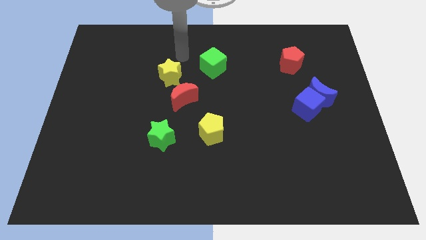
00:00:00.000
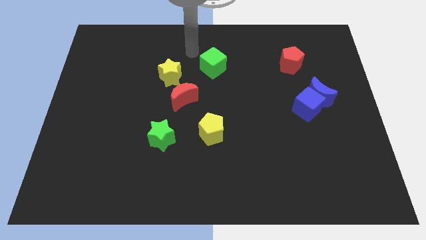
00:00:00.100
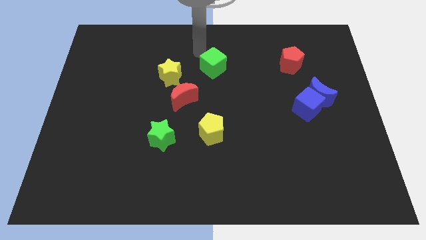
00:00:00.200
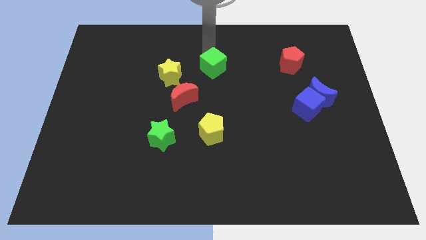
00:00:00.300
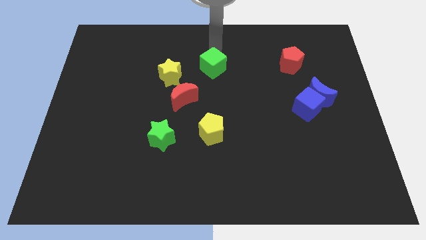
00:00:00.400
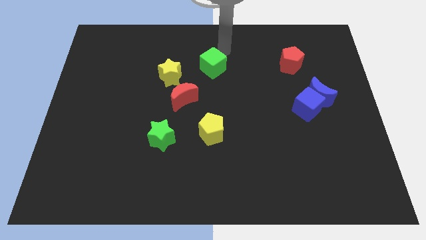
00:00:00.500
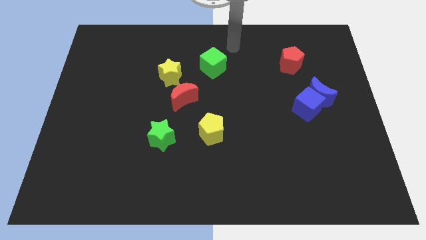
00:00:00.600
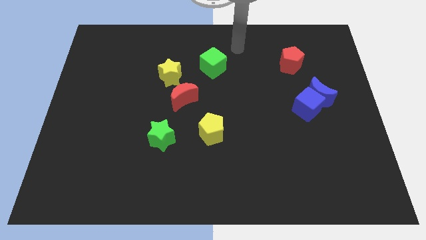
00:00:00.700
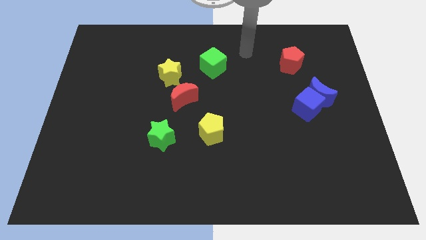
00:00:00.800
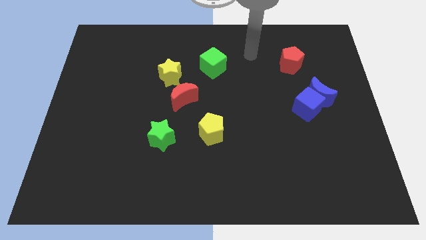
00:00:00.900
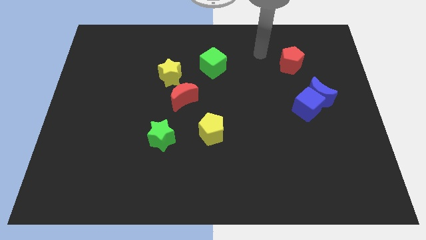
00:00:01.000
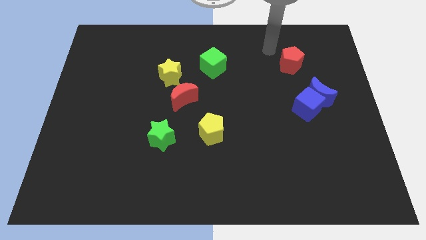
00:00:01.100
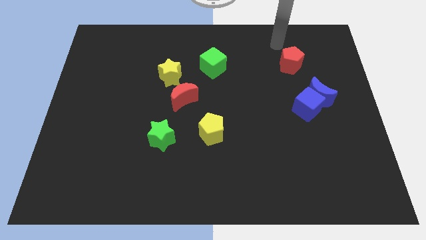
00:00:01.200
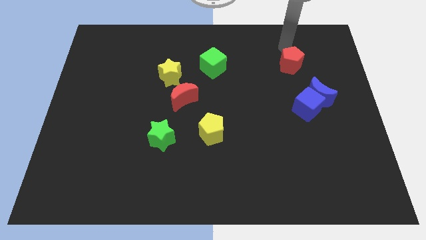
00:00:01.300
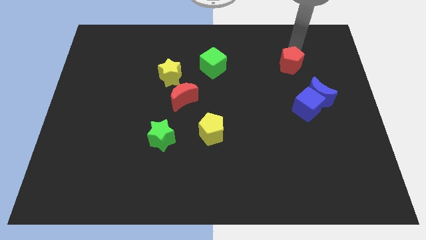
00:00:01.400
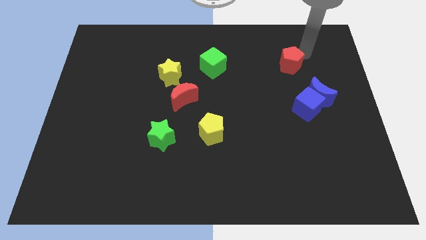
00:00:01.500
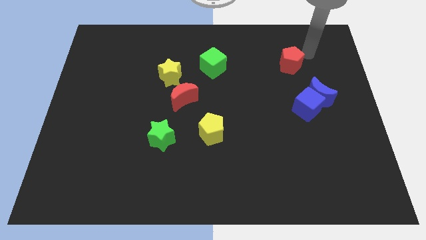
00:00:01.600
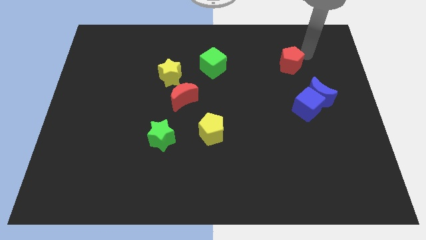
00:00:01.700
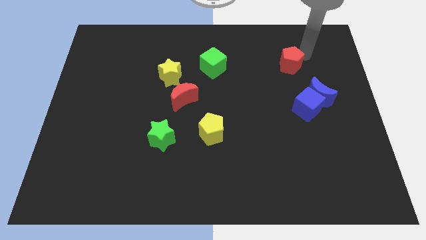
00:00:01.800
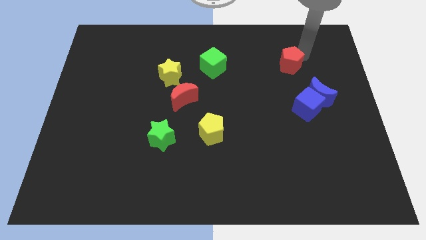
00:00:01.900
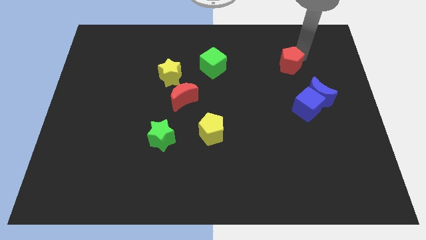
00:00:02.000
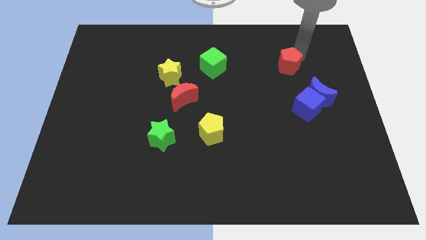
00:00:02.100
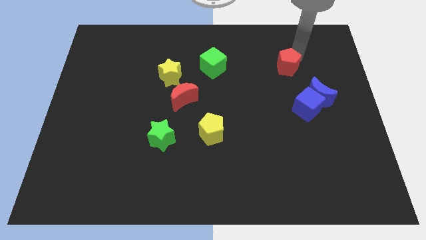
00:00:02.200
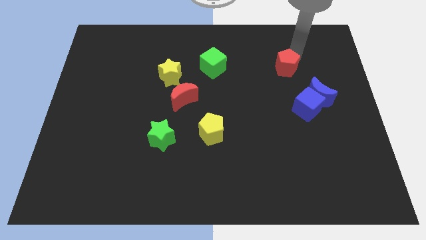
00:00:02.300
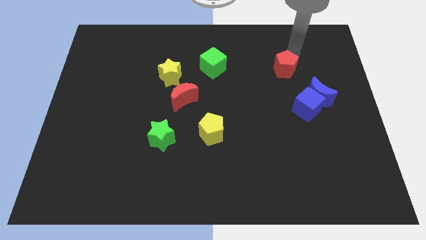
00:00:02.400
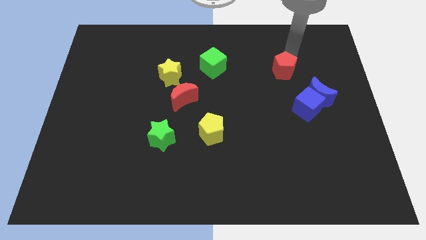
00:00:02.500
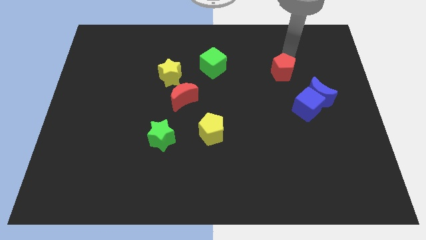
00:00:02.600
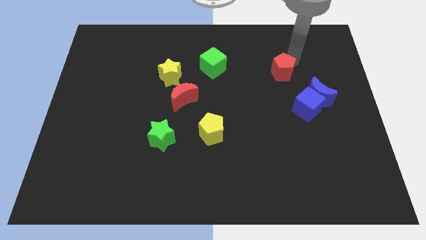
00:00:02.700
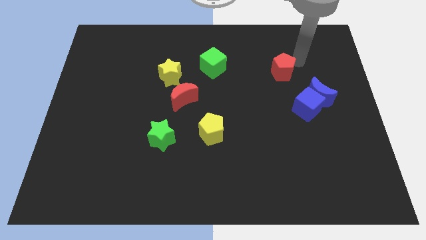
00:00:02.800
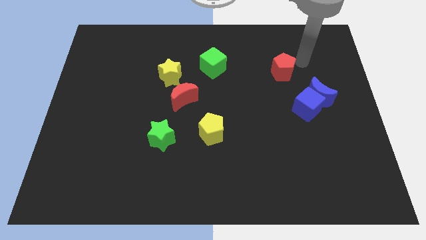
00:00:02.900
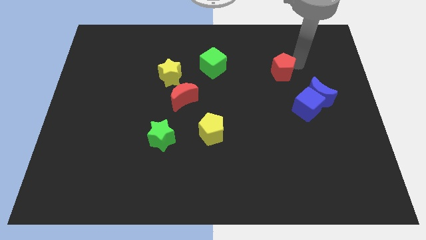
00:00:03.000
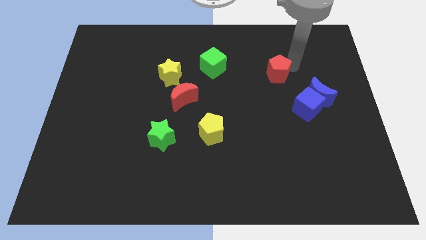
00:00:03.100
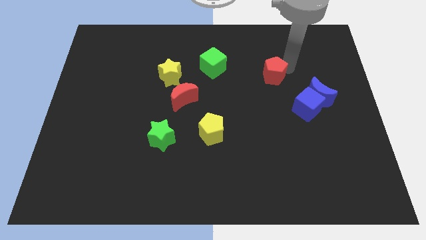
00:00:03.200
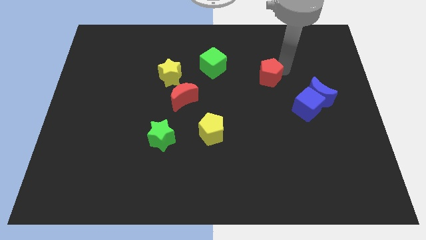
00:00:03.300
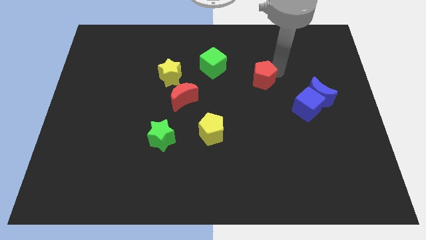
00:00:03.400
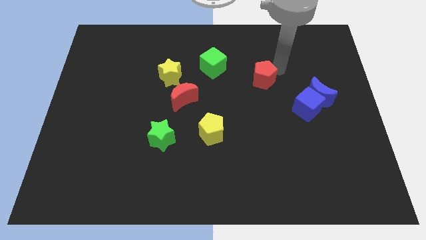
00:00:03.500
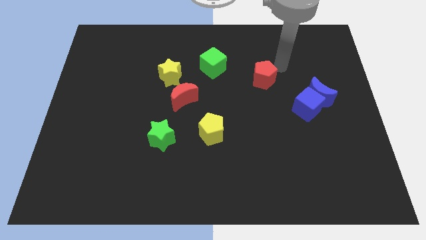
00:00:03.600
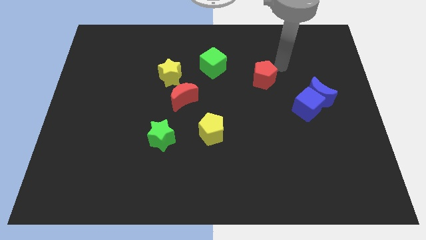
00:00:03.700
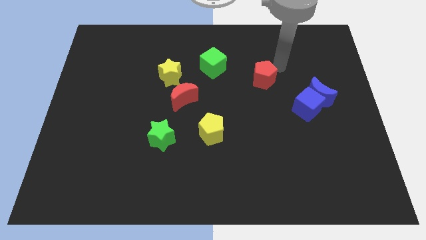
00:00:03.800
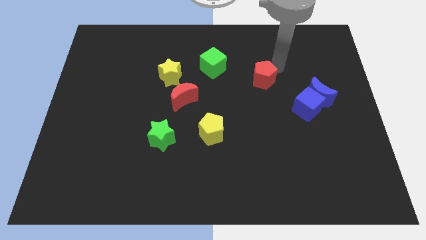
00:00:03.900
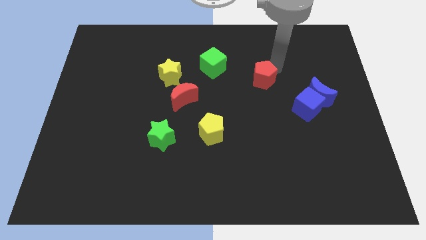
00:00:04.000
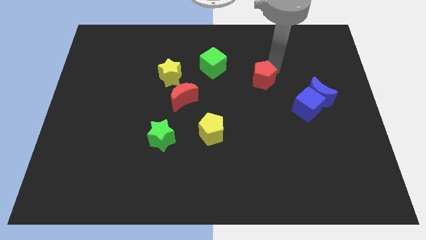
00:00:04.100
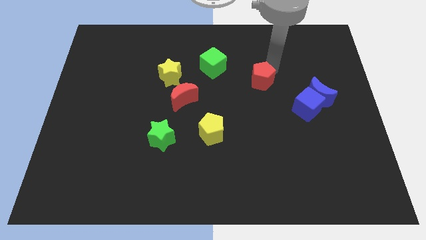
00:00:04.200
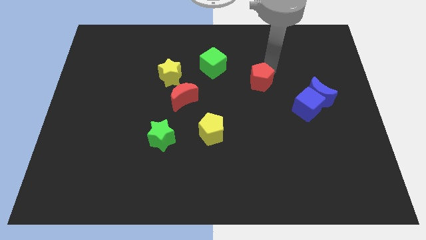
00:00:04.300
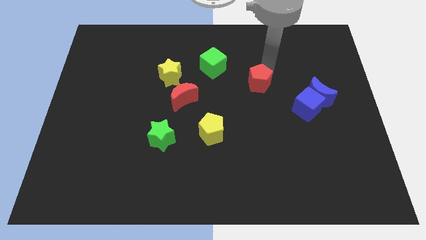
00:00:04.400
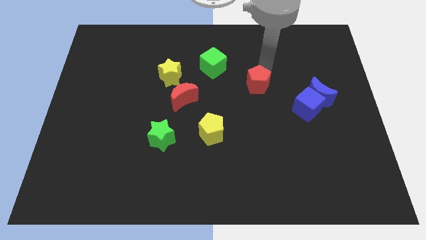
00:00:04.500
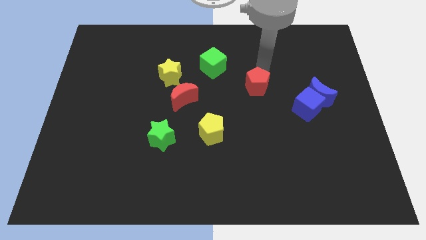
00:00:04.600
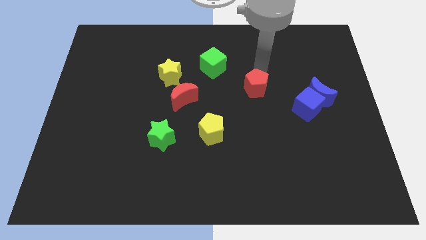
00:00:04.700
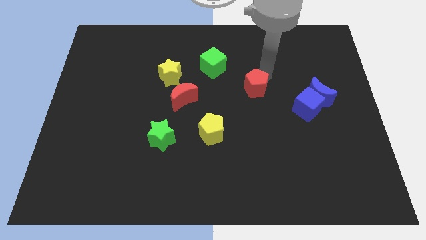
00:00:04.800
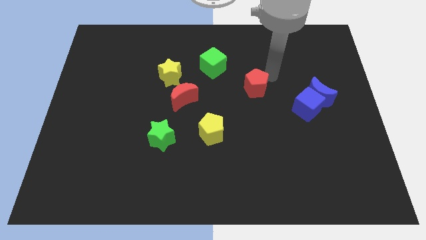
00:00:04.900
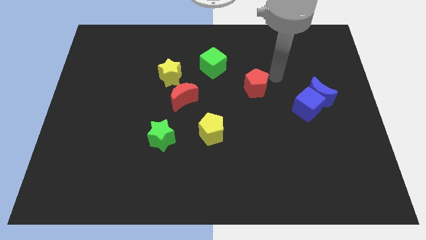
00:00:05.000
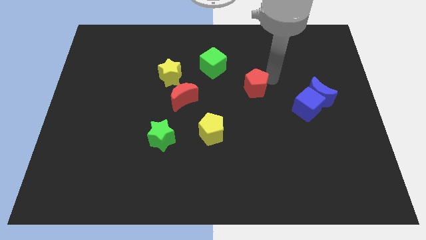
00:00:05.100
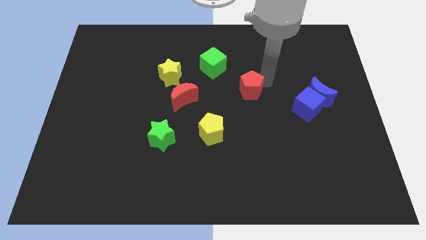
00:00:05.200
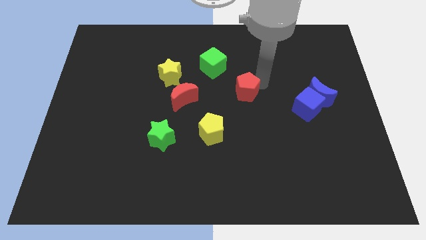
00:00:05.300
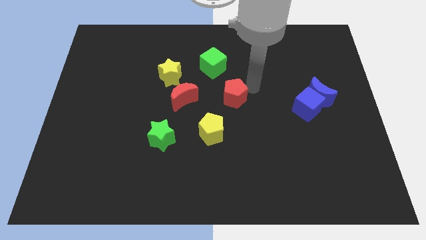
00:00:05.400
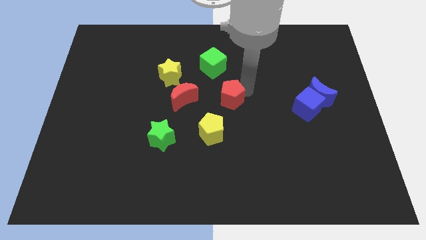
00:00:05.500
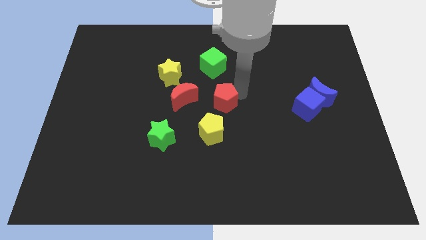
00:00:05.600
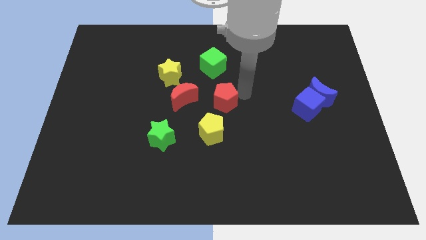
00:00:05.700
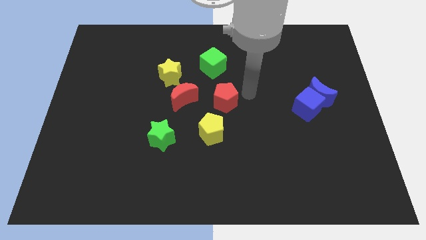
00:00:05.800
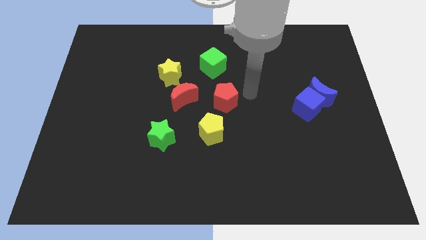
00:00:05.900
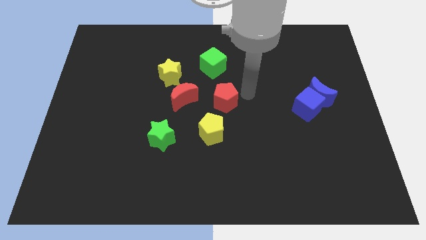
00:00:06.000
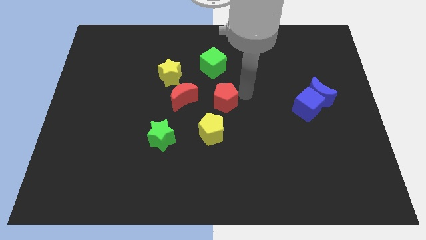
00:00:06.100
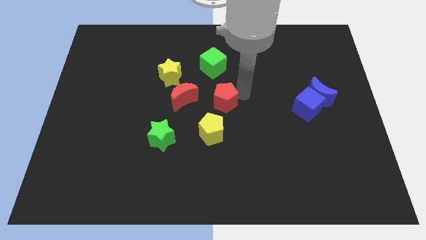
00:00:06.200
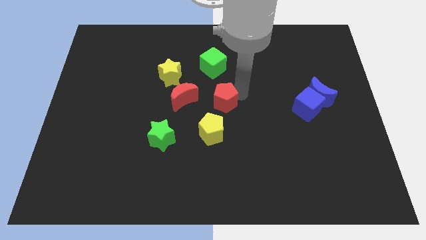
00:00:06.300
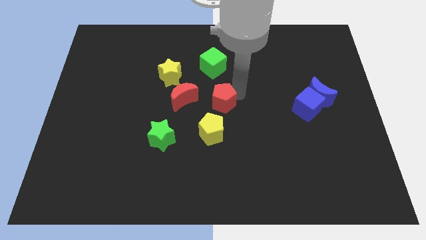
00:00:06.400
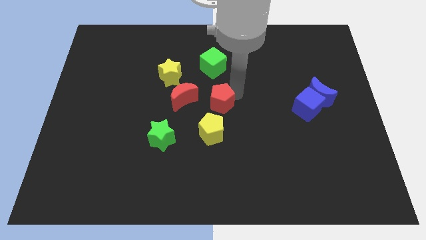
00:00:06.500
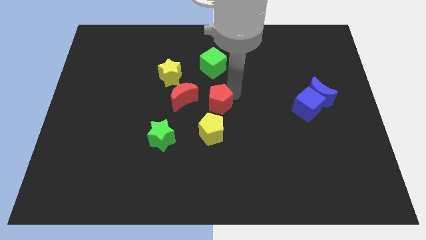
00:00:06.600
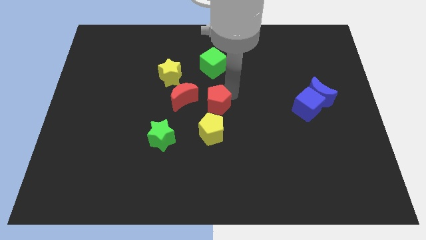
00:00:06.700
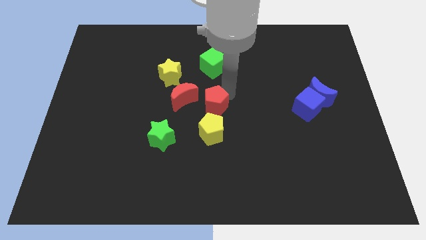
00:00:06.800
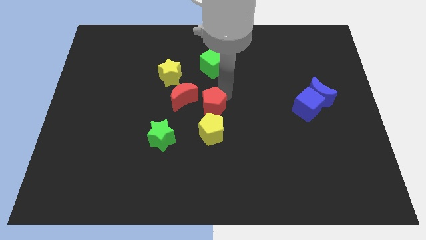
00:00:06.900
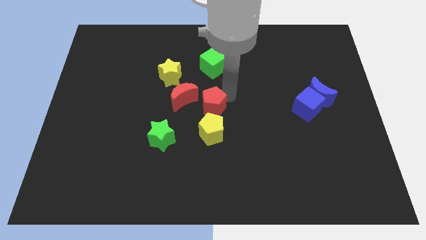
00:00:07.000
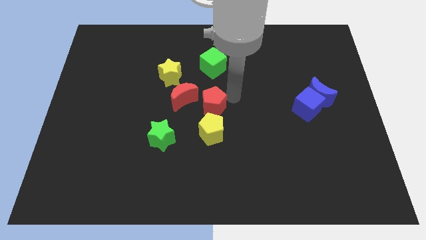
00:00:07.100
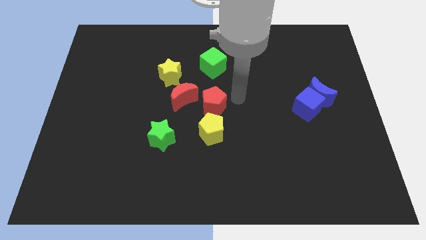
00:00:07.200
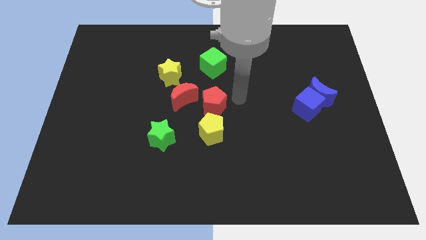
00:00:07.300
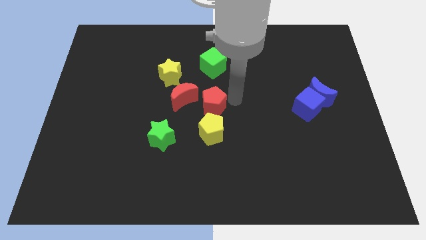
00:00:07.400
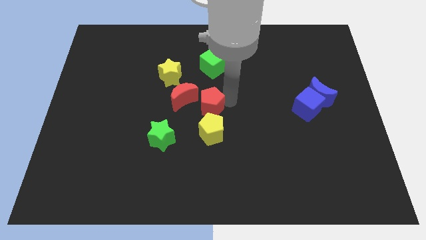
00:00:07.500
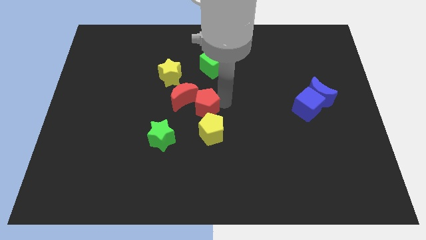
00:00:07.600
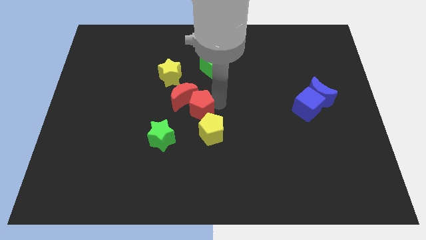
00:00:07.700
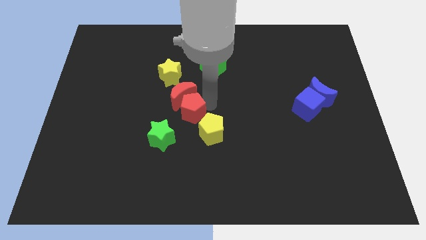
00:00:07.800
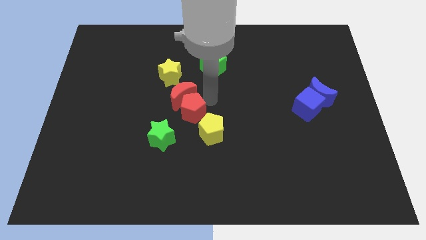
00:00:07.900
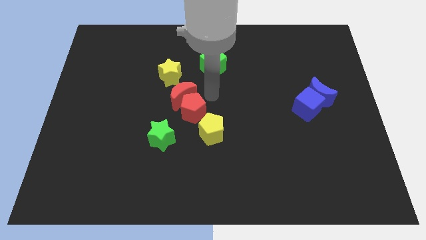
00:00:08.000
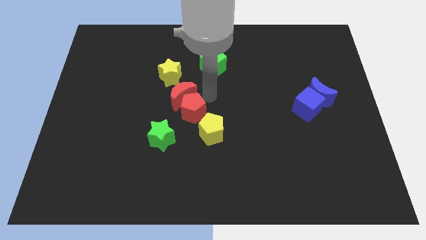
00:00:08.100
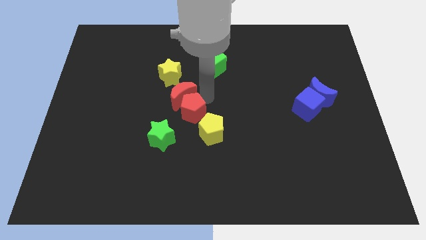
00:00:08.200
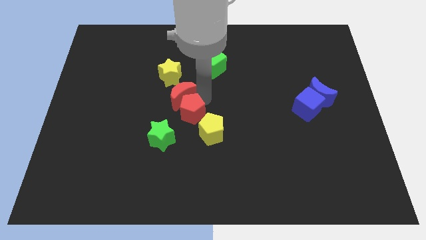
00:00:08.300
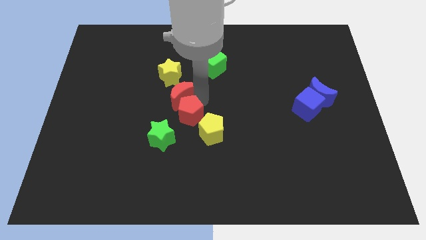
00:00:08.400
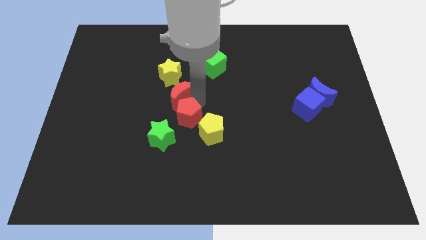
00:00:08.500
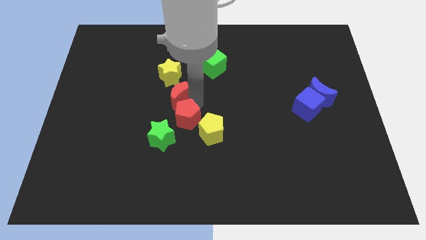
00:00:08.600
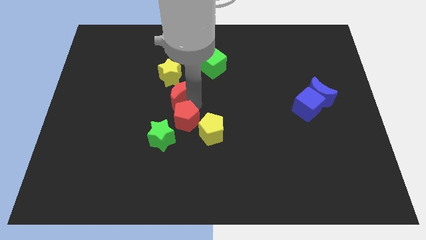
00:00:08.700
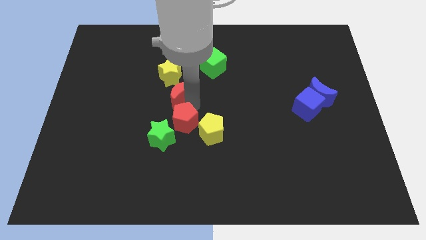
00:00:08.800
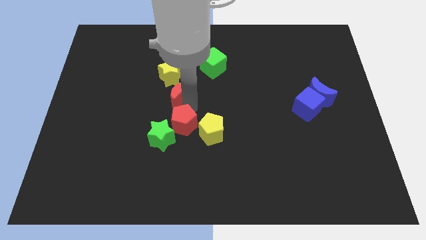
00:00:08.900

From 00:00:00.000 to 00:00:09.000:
put the red pentagon towards the green star
